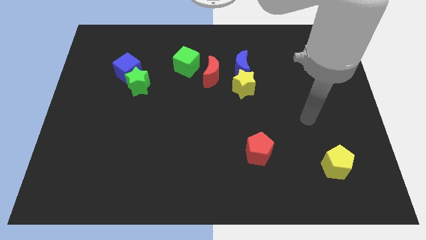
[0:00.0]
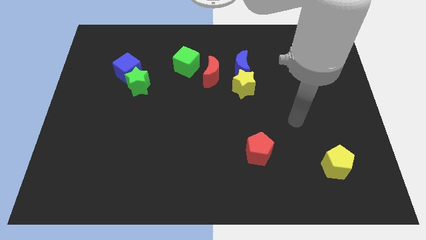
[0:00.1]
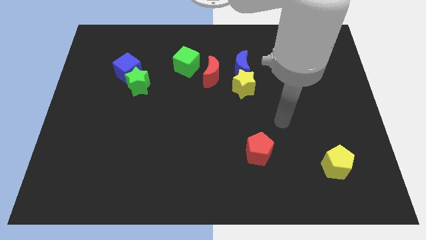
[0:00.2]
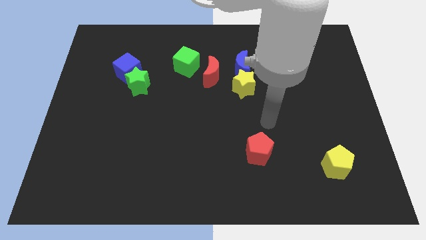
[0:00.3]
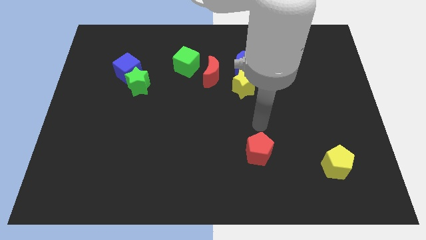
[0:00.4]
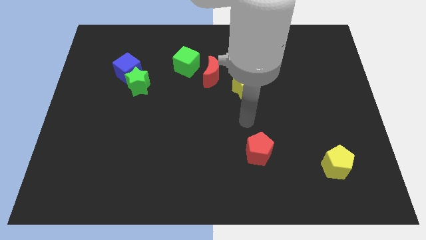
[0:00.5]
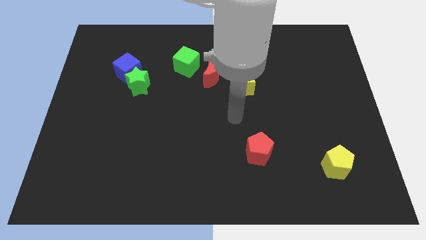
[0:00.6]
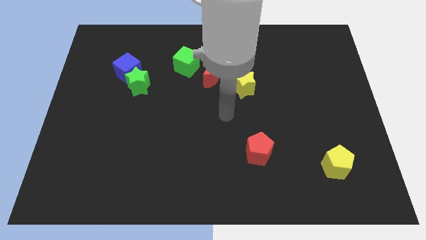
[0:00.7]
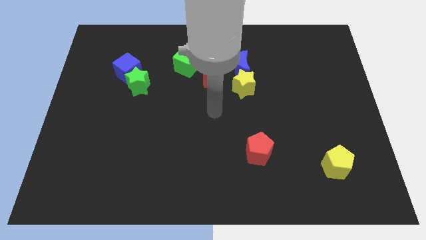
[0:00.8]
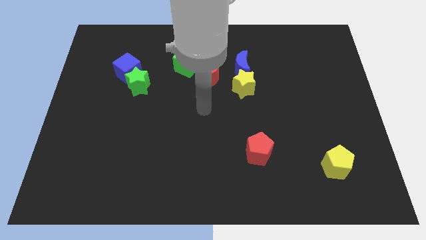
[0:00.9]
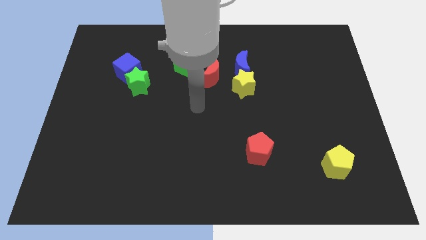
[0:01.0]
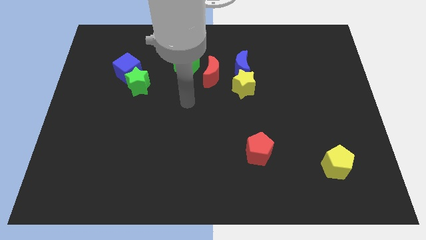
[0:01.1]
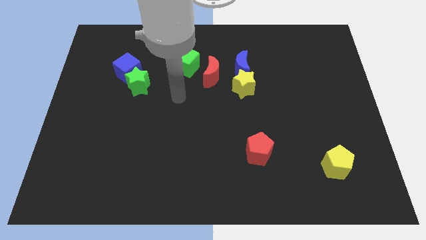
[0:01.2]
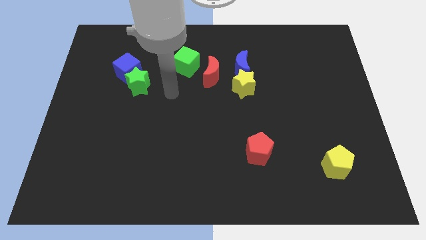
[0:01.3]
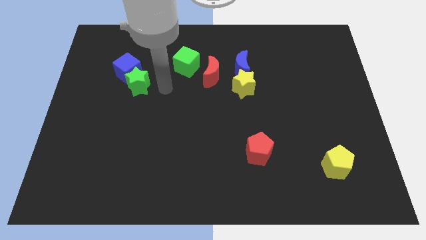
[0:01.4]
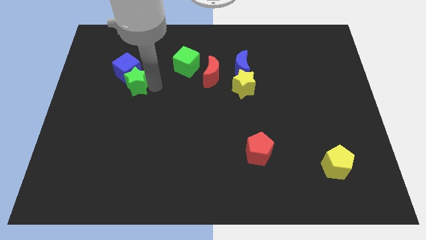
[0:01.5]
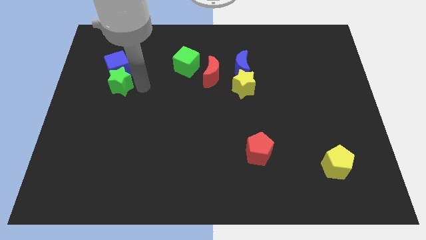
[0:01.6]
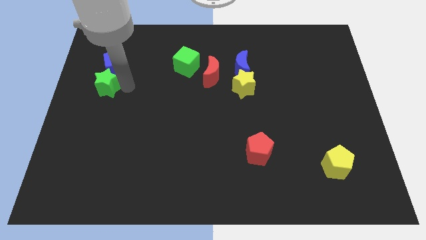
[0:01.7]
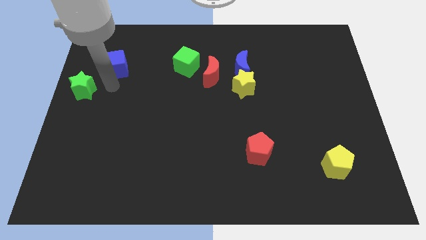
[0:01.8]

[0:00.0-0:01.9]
separate the blue cube from the green star

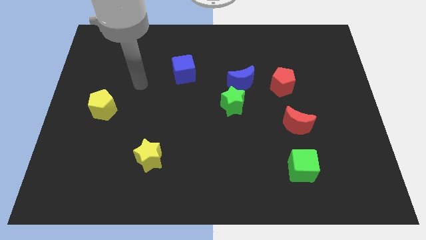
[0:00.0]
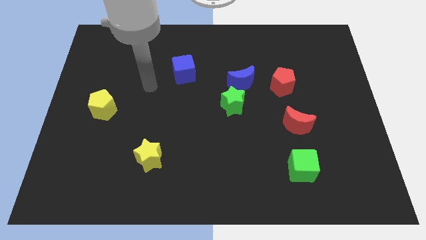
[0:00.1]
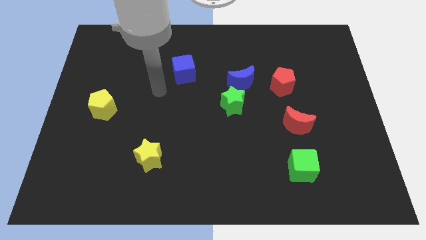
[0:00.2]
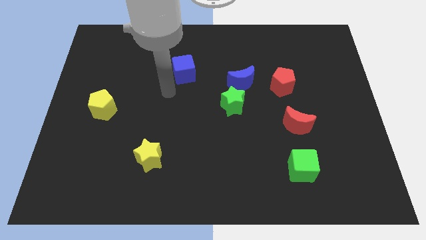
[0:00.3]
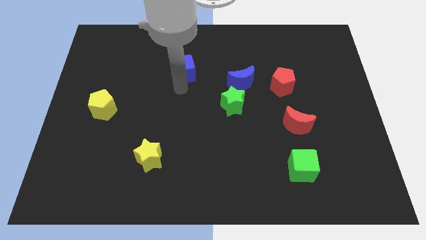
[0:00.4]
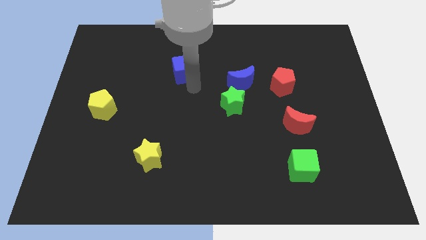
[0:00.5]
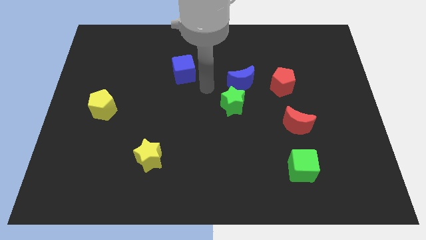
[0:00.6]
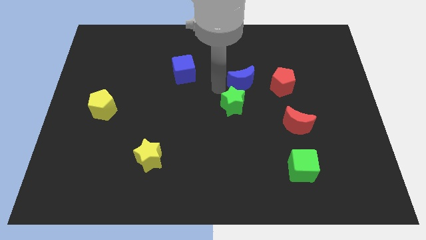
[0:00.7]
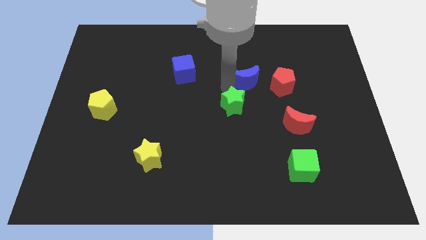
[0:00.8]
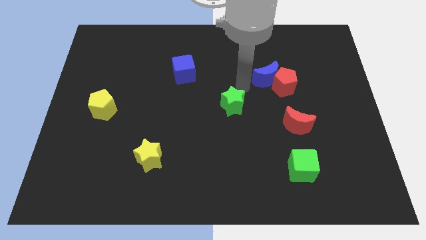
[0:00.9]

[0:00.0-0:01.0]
separate the green star from the blue moon

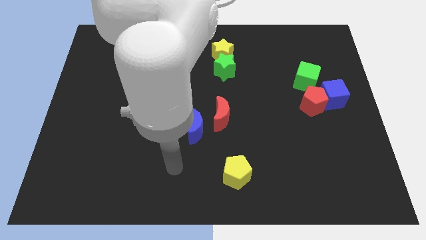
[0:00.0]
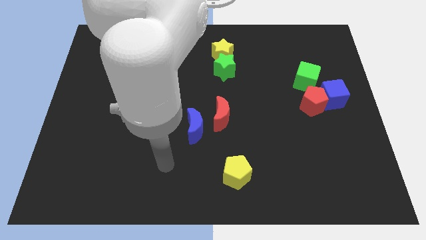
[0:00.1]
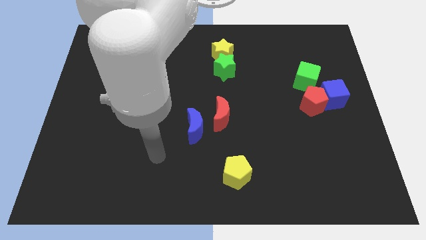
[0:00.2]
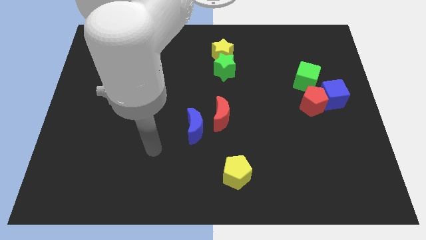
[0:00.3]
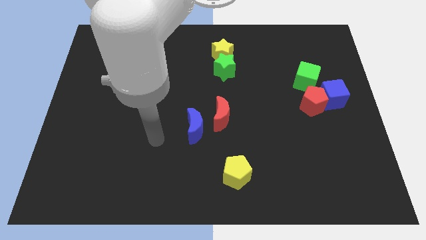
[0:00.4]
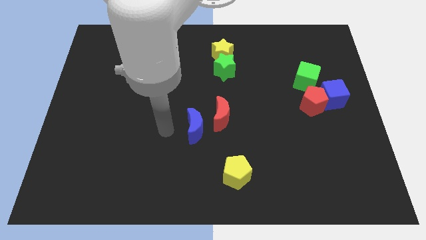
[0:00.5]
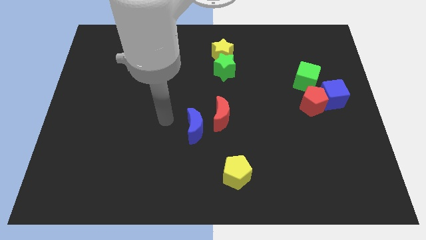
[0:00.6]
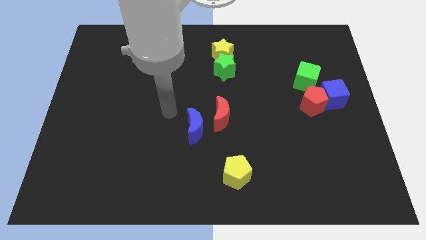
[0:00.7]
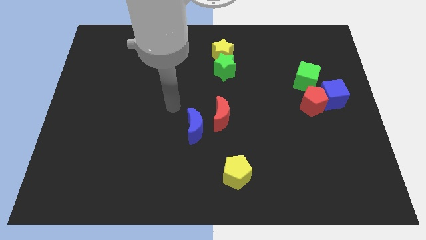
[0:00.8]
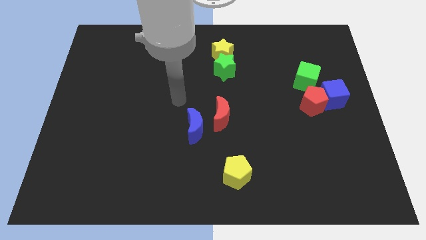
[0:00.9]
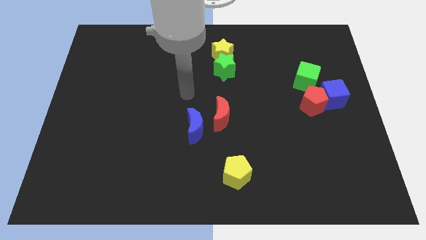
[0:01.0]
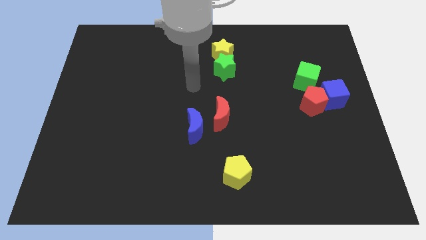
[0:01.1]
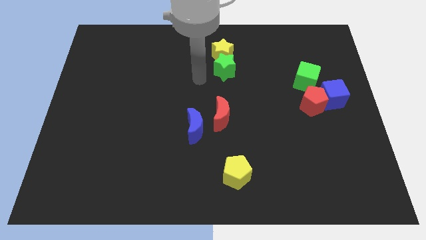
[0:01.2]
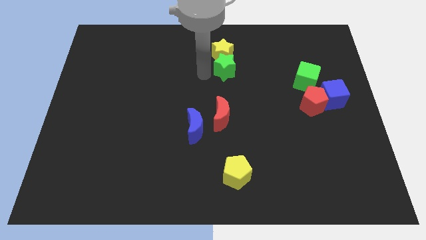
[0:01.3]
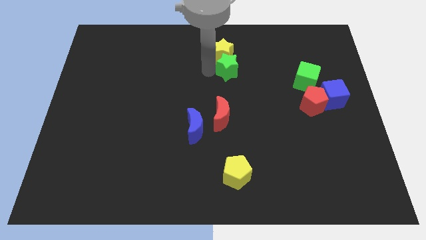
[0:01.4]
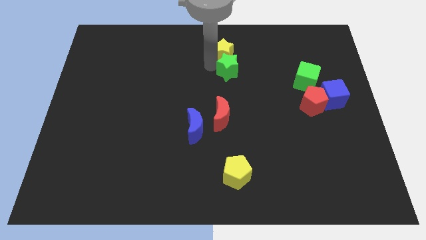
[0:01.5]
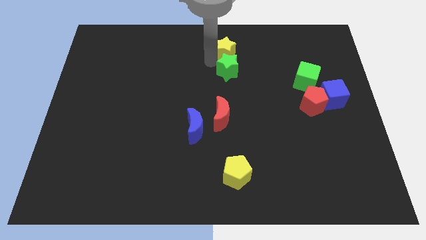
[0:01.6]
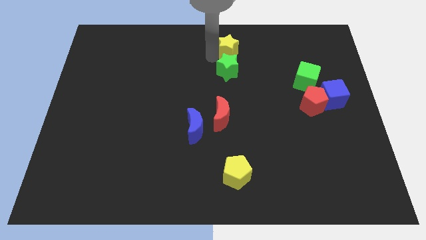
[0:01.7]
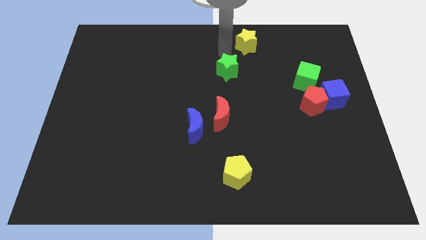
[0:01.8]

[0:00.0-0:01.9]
pull the green star apart from the yellow star

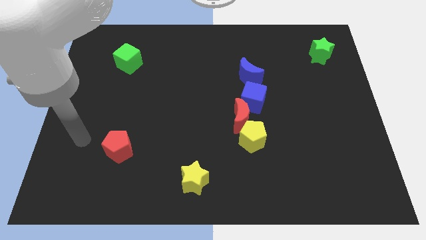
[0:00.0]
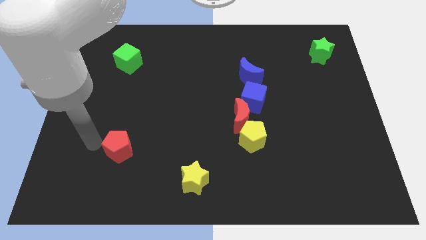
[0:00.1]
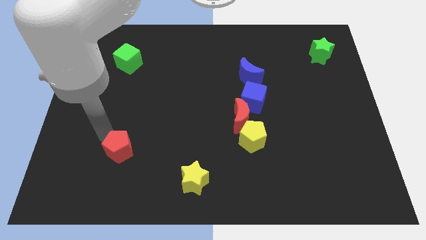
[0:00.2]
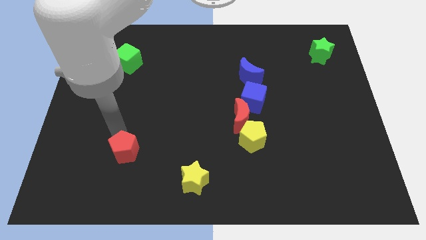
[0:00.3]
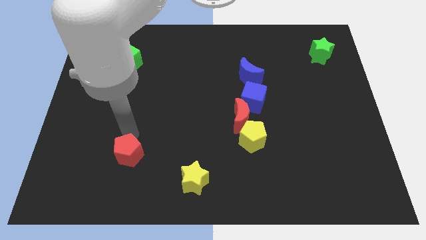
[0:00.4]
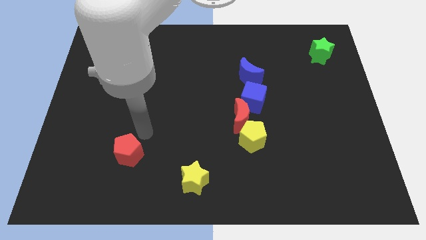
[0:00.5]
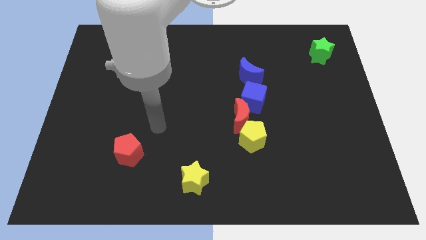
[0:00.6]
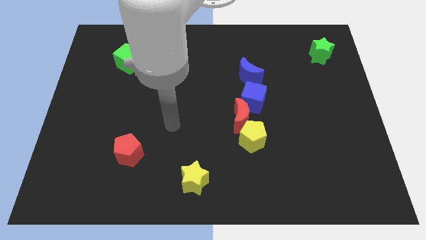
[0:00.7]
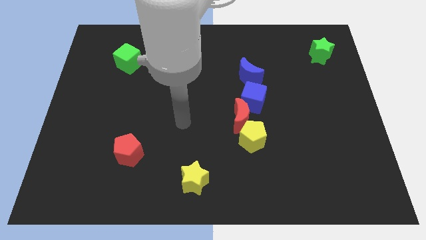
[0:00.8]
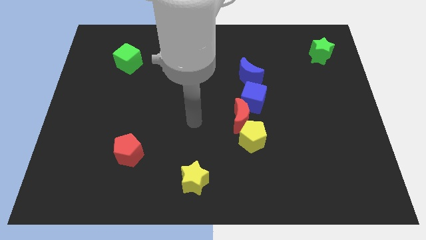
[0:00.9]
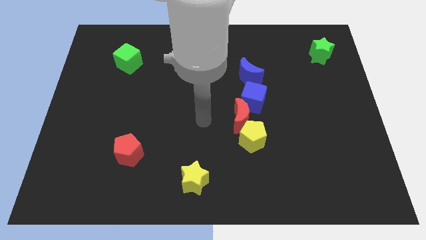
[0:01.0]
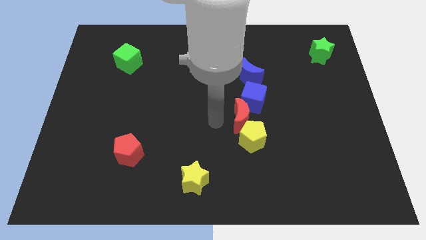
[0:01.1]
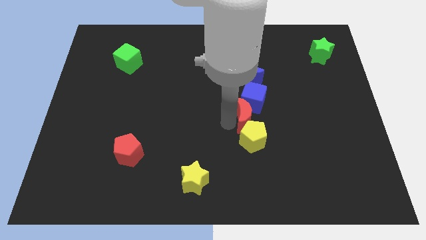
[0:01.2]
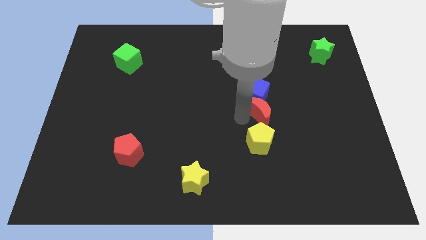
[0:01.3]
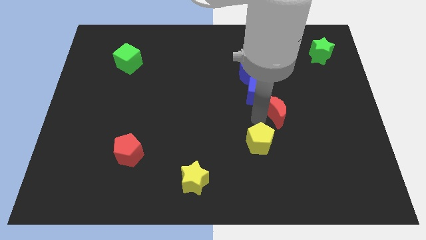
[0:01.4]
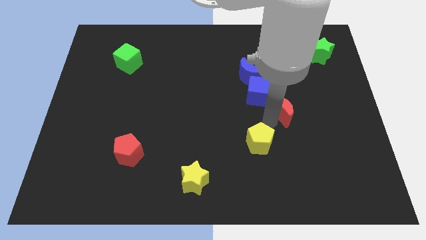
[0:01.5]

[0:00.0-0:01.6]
separate the yellow pentagon from the red moon

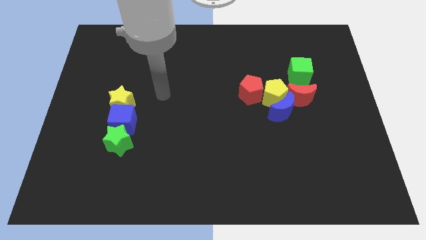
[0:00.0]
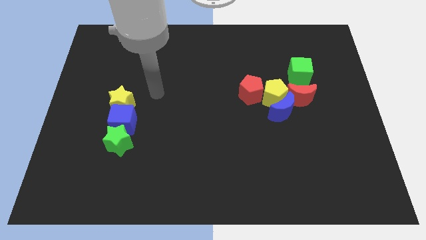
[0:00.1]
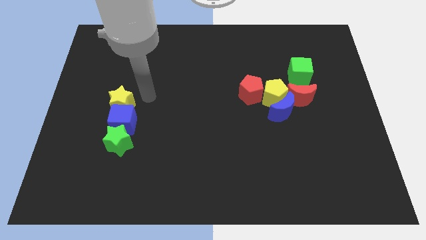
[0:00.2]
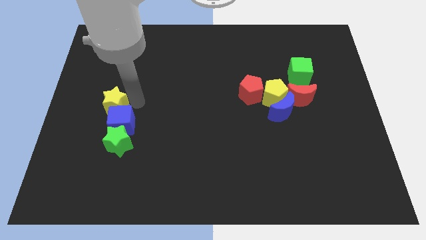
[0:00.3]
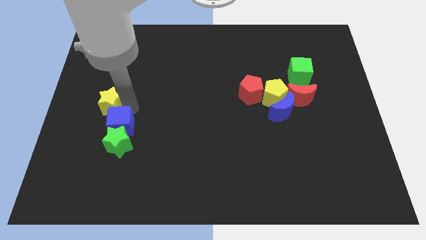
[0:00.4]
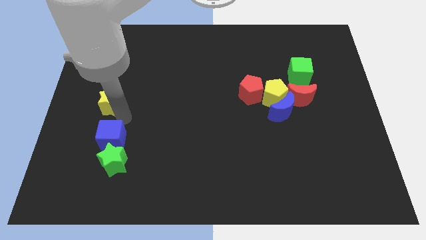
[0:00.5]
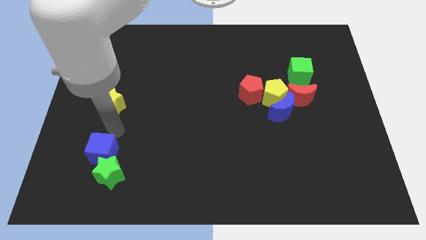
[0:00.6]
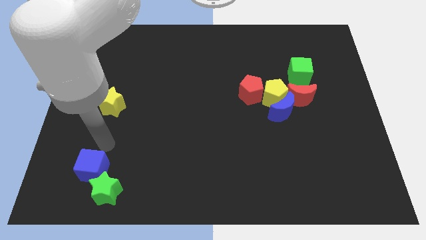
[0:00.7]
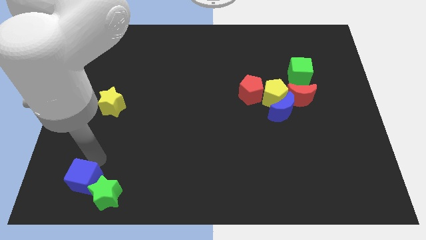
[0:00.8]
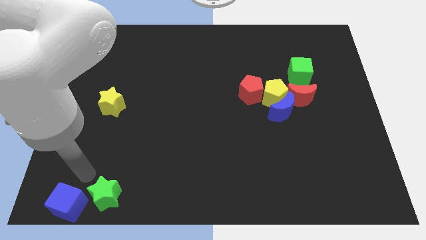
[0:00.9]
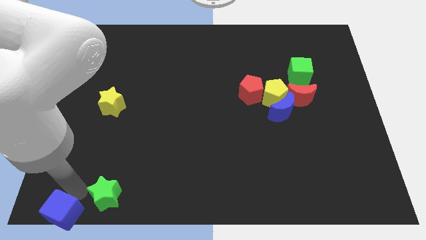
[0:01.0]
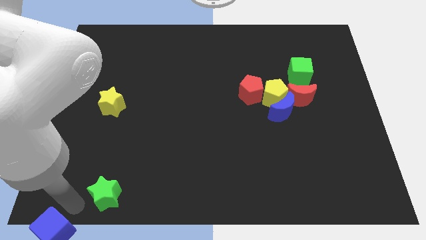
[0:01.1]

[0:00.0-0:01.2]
separate the green star from the blue cube

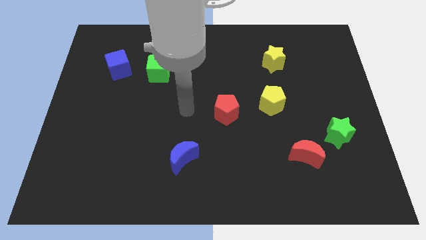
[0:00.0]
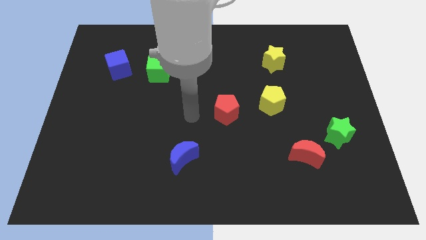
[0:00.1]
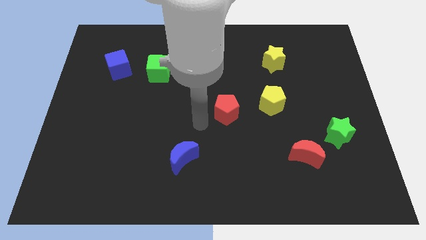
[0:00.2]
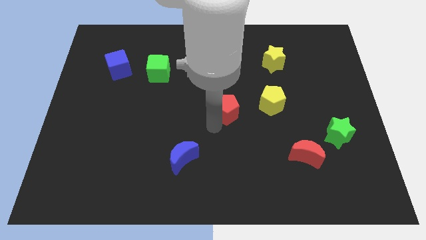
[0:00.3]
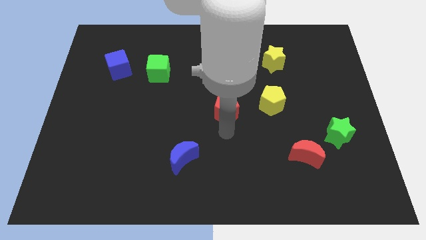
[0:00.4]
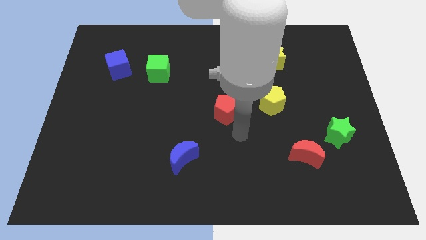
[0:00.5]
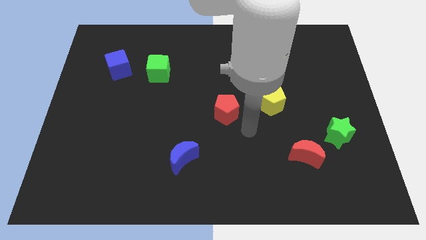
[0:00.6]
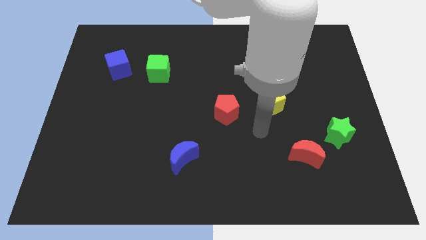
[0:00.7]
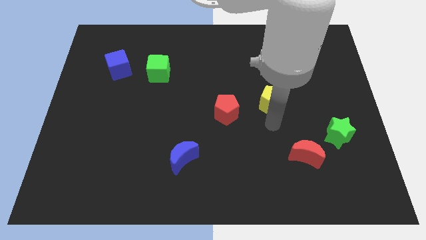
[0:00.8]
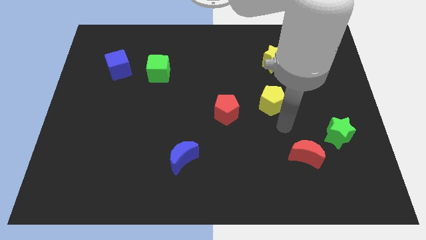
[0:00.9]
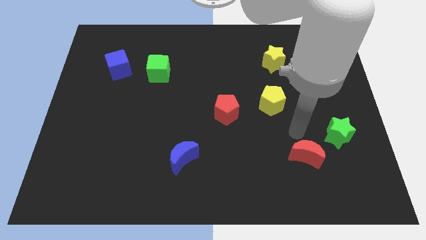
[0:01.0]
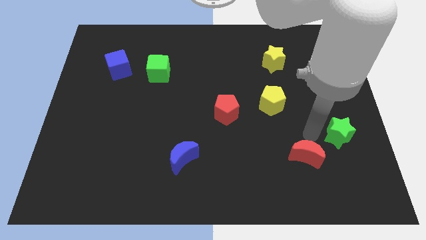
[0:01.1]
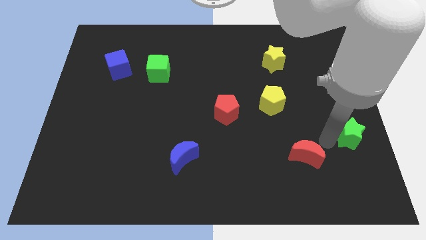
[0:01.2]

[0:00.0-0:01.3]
pull the red moon apart from the green star

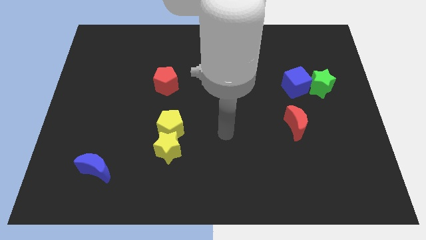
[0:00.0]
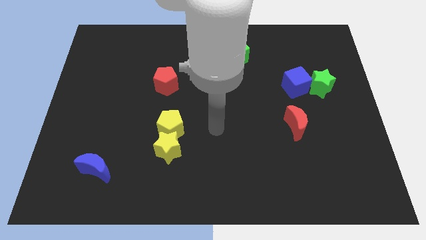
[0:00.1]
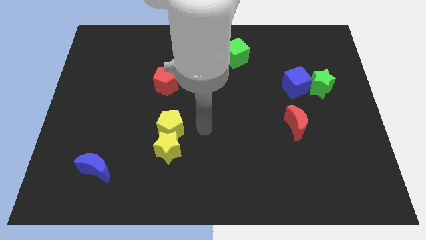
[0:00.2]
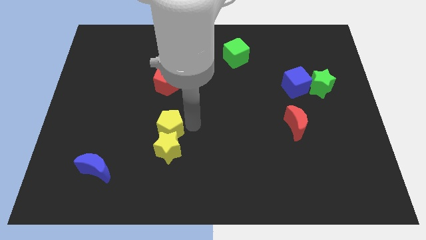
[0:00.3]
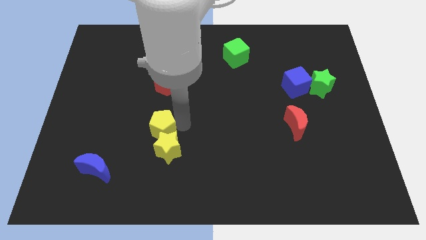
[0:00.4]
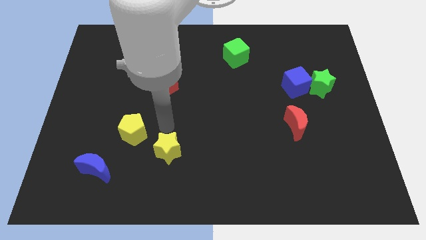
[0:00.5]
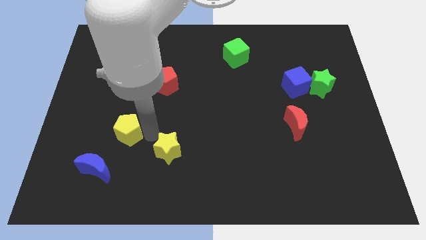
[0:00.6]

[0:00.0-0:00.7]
pull the yellow star apart from the yellow pentagon
